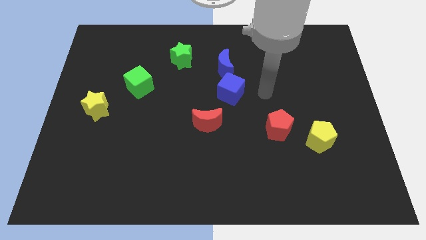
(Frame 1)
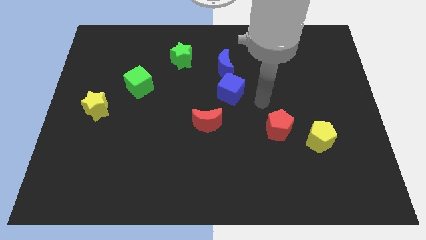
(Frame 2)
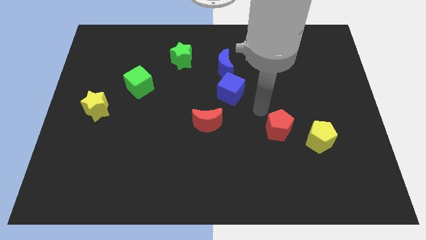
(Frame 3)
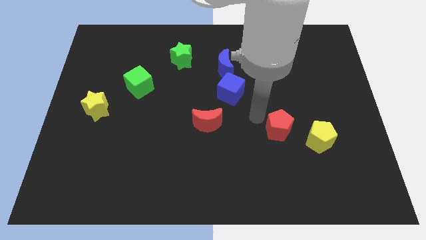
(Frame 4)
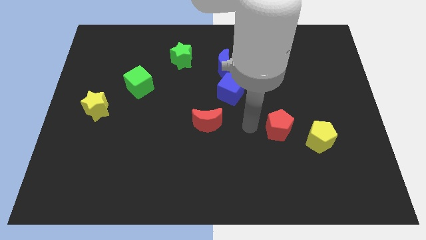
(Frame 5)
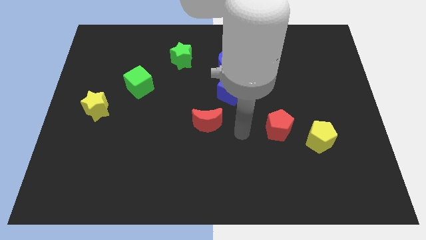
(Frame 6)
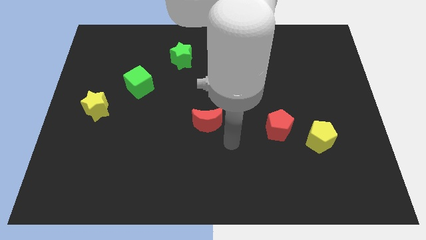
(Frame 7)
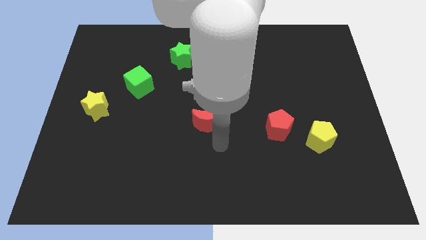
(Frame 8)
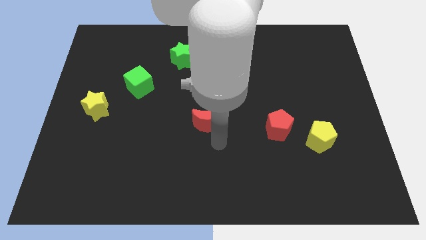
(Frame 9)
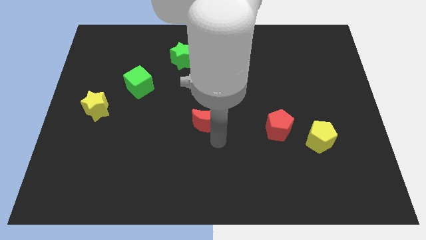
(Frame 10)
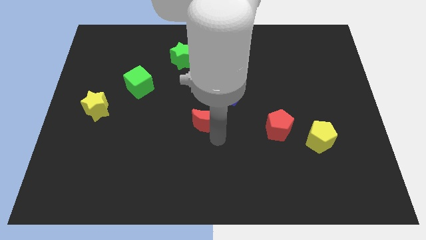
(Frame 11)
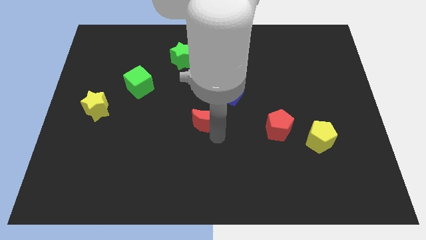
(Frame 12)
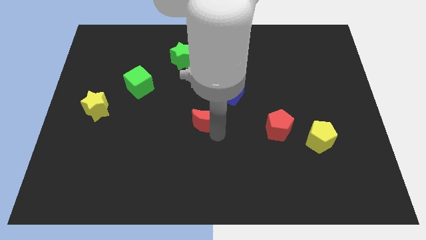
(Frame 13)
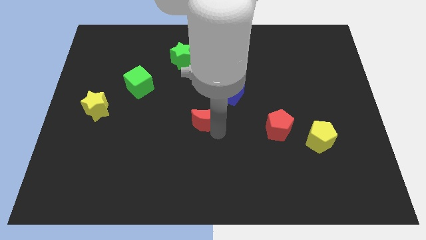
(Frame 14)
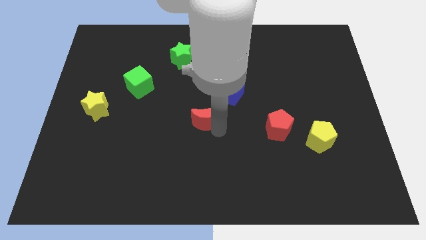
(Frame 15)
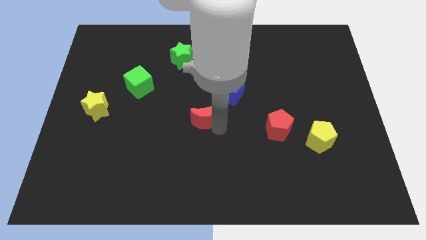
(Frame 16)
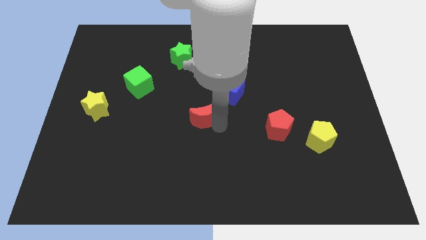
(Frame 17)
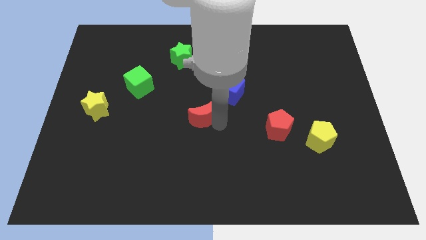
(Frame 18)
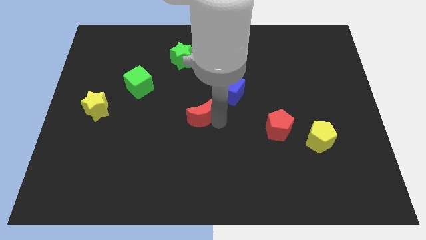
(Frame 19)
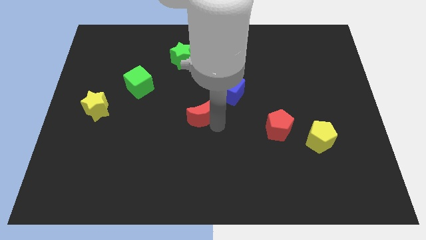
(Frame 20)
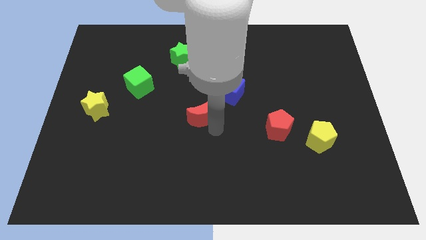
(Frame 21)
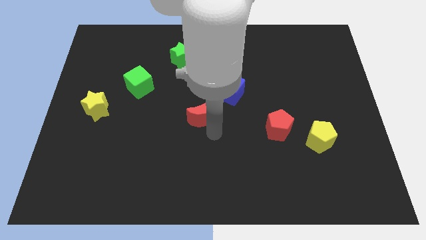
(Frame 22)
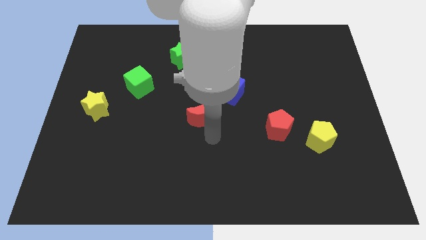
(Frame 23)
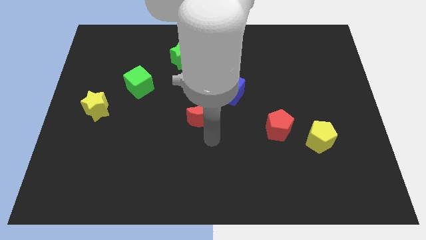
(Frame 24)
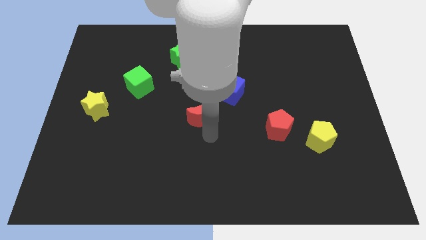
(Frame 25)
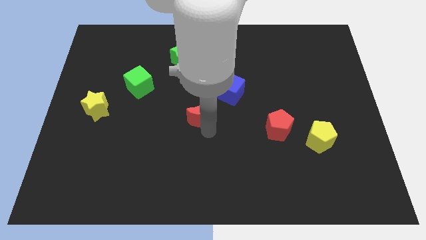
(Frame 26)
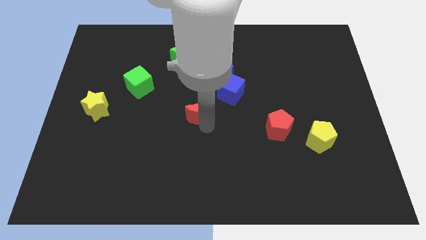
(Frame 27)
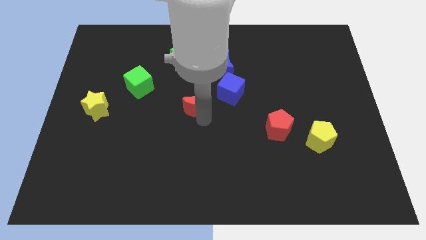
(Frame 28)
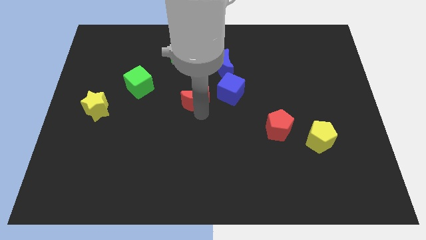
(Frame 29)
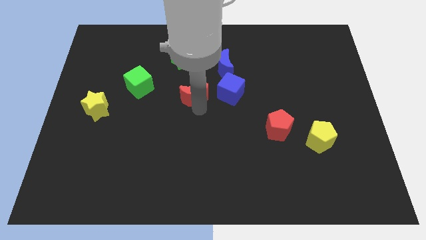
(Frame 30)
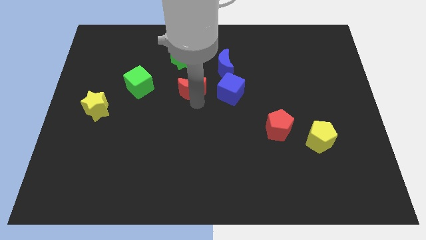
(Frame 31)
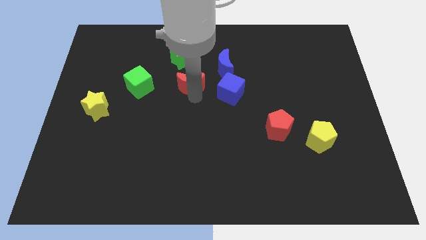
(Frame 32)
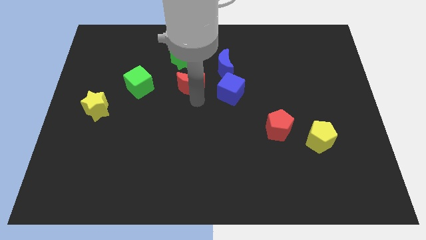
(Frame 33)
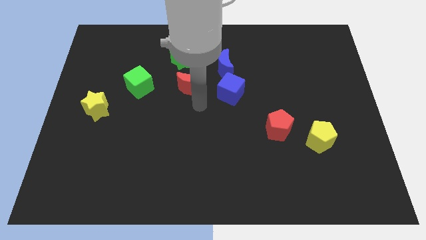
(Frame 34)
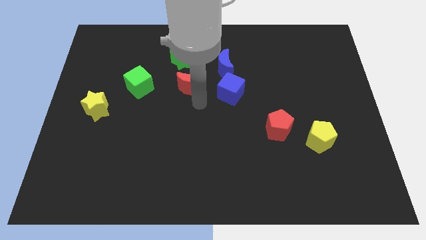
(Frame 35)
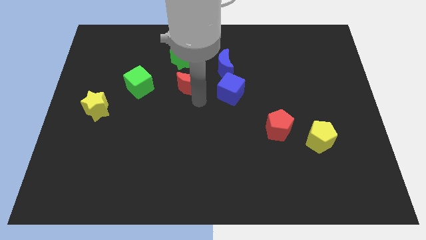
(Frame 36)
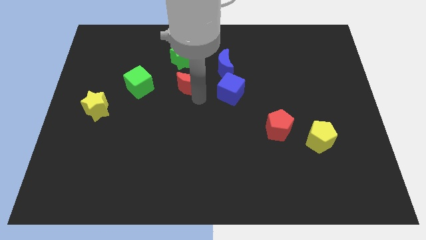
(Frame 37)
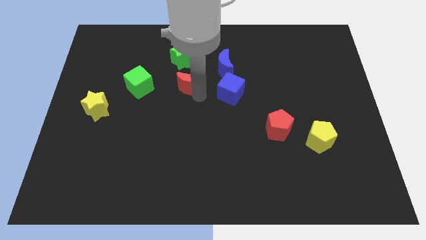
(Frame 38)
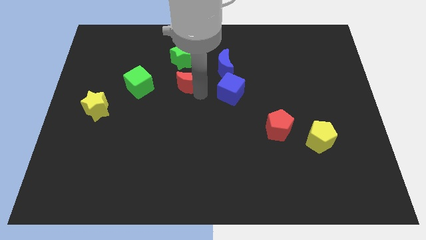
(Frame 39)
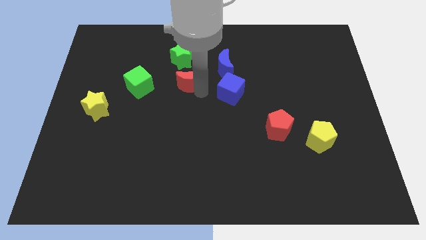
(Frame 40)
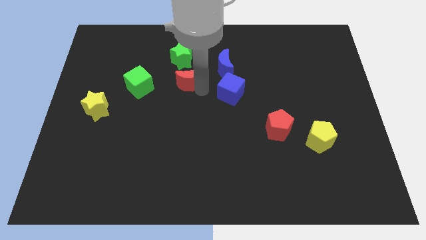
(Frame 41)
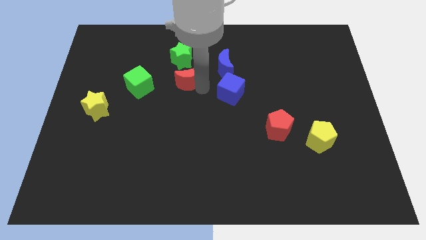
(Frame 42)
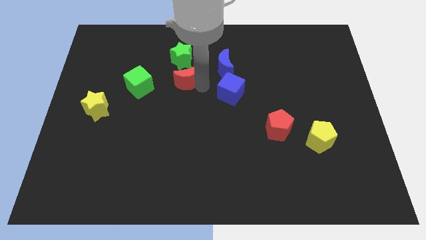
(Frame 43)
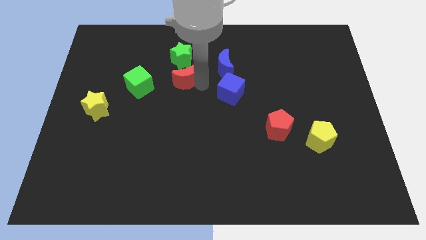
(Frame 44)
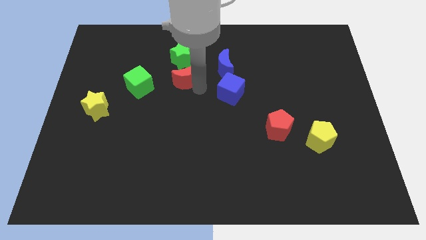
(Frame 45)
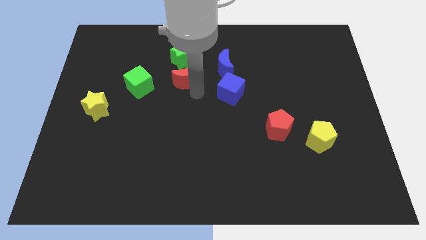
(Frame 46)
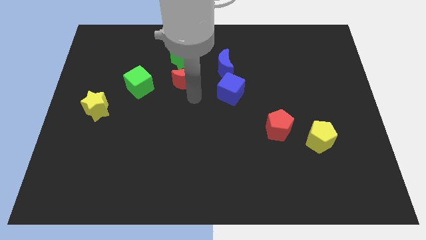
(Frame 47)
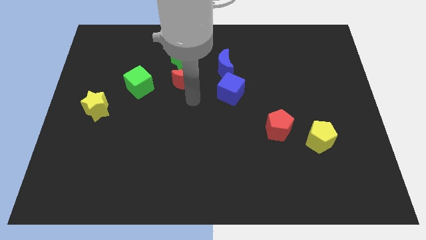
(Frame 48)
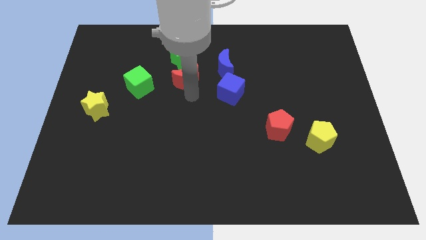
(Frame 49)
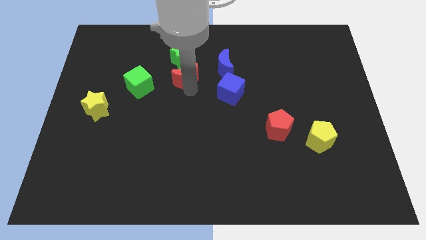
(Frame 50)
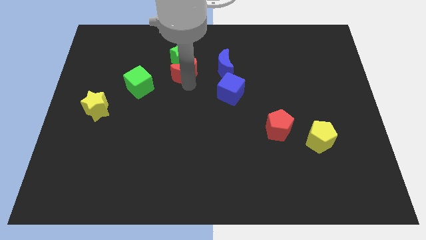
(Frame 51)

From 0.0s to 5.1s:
push the red moon next to the green star

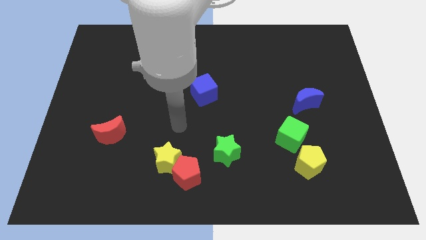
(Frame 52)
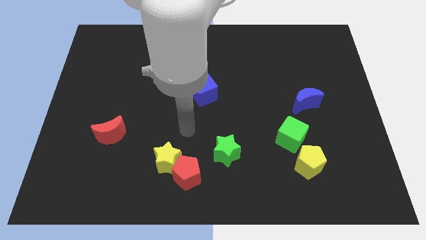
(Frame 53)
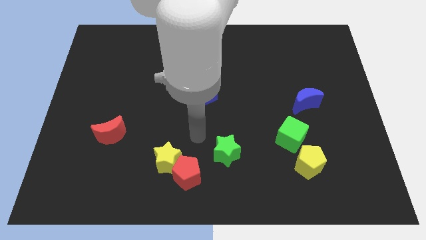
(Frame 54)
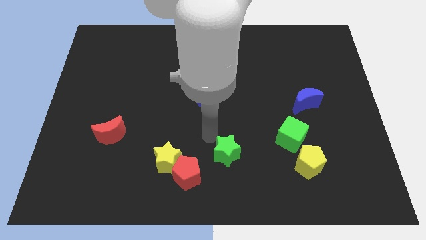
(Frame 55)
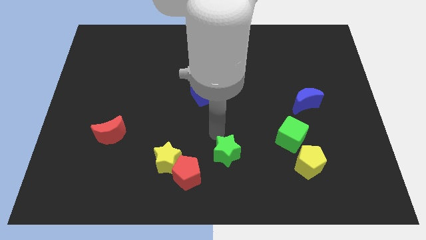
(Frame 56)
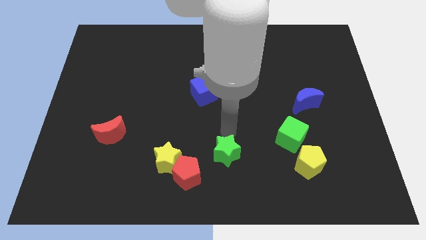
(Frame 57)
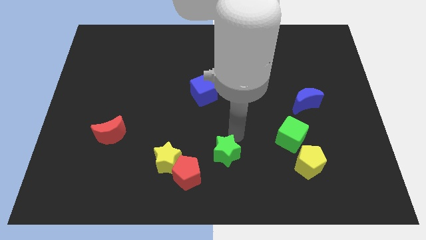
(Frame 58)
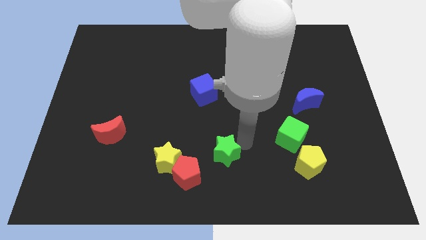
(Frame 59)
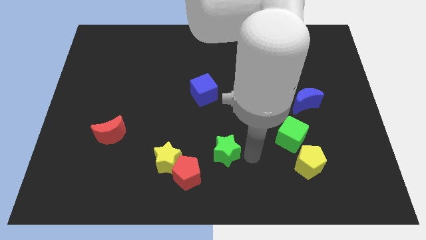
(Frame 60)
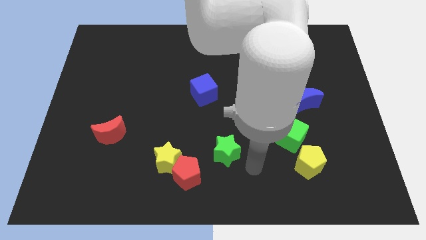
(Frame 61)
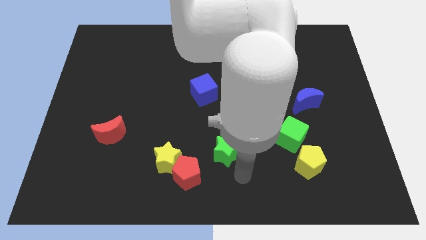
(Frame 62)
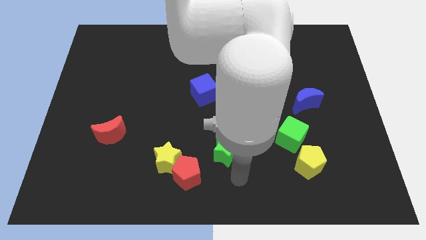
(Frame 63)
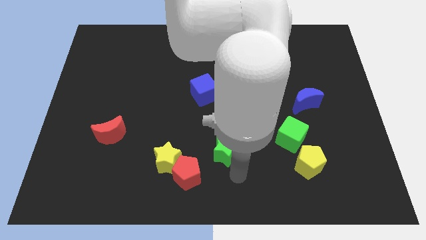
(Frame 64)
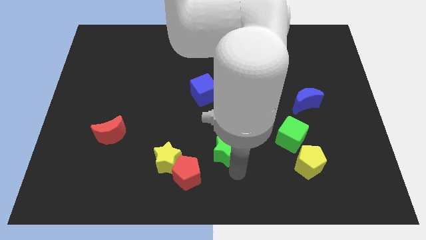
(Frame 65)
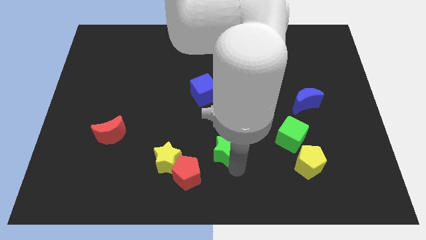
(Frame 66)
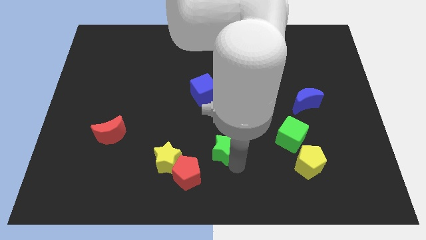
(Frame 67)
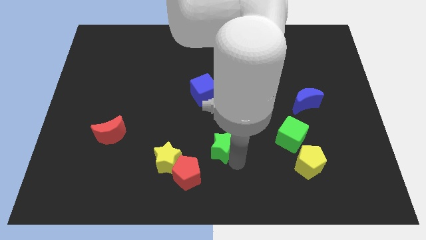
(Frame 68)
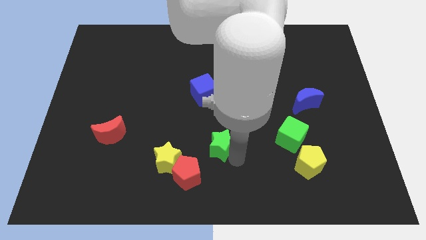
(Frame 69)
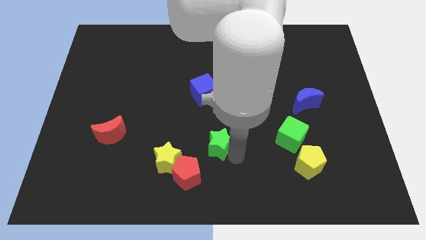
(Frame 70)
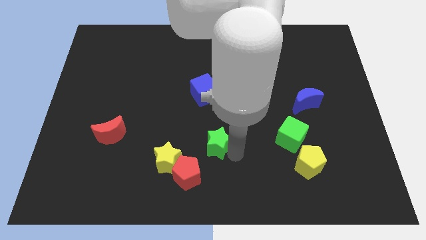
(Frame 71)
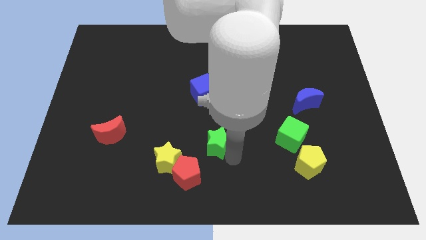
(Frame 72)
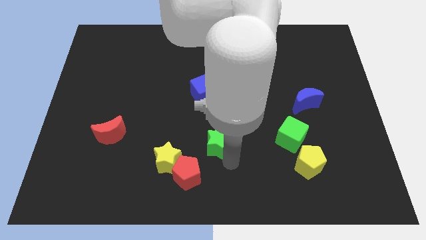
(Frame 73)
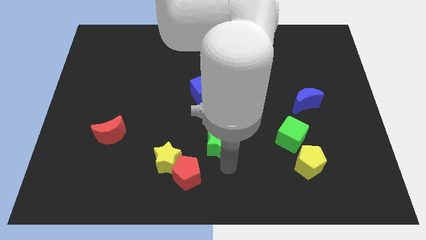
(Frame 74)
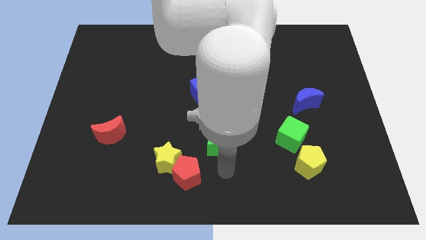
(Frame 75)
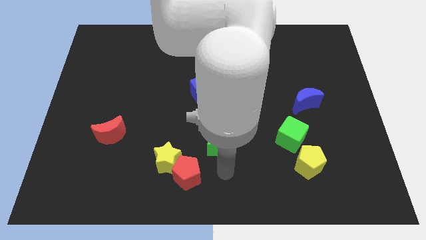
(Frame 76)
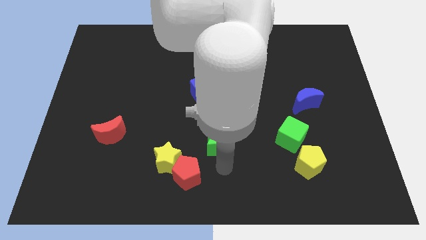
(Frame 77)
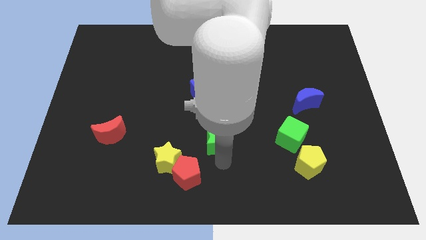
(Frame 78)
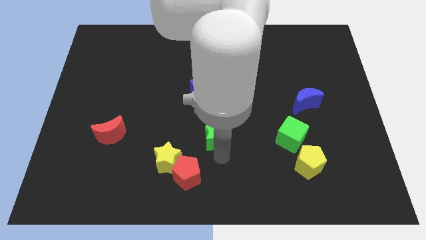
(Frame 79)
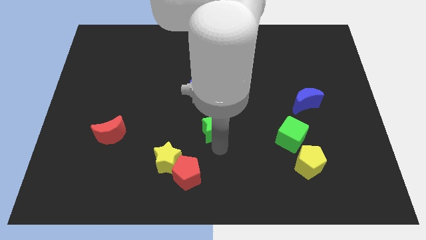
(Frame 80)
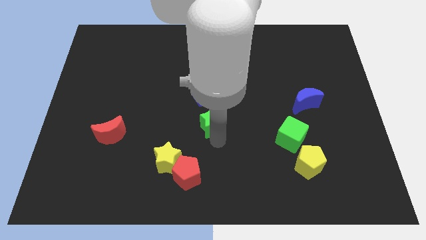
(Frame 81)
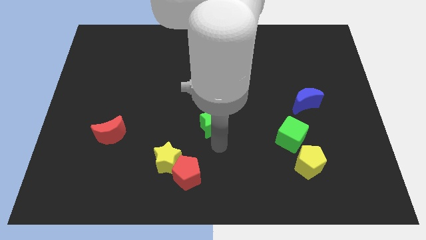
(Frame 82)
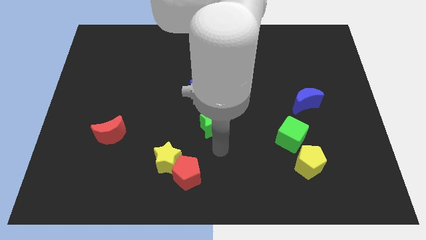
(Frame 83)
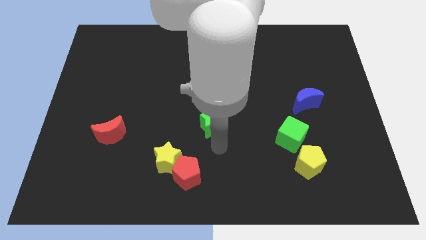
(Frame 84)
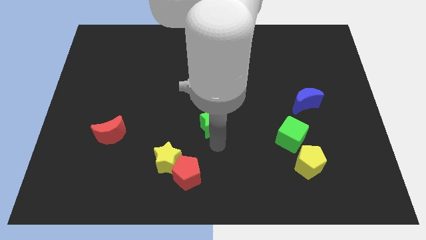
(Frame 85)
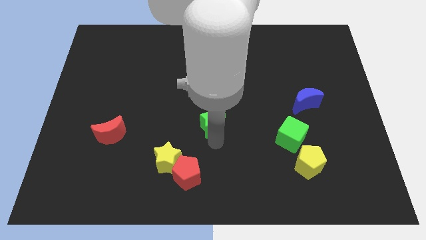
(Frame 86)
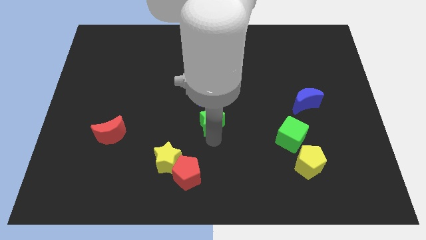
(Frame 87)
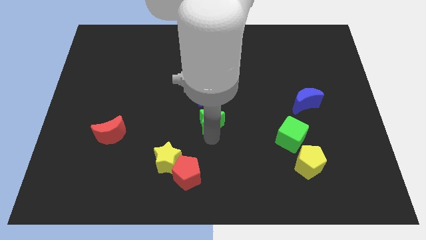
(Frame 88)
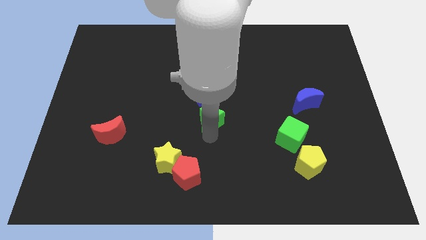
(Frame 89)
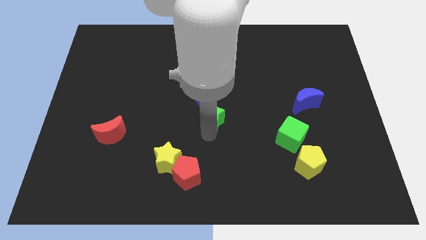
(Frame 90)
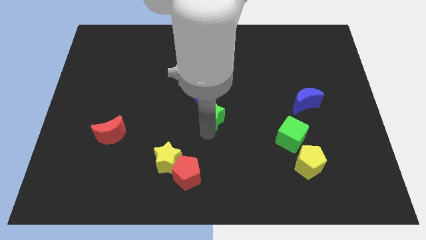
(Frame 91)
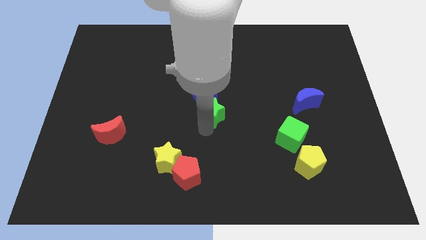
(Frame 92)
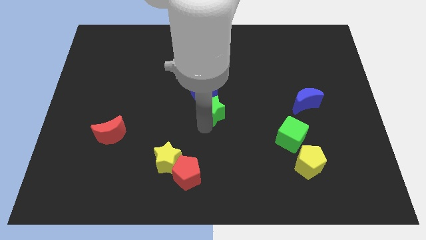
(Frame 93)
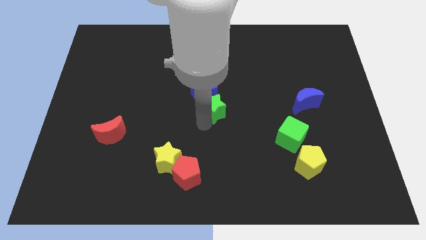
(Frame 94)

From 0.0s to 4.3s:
push the green star next to the blue cube
